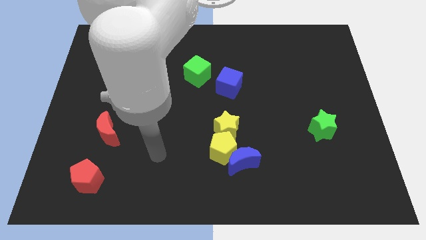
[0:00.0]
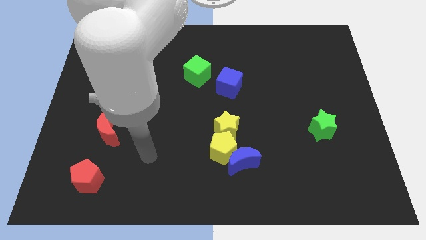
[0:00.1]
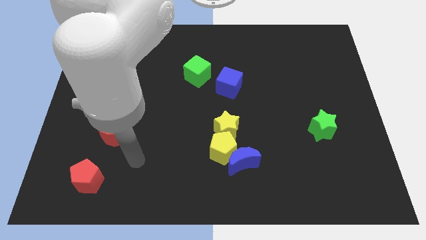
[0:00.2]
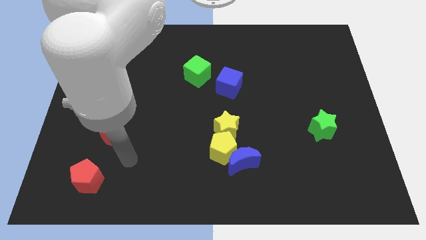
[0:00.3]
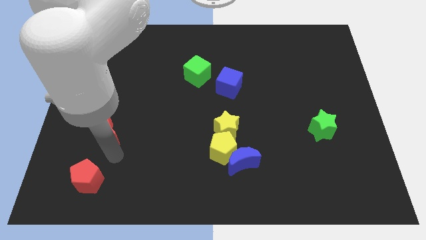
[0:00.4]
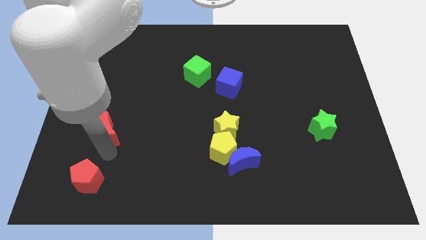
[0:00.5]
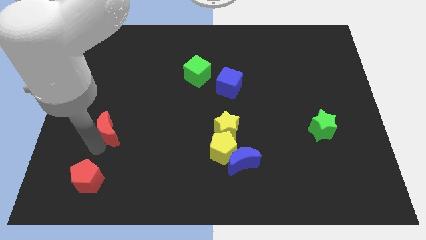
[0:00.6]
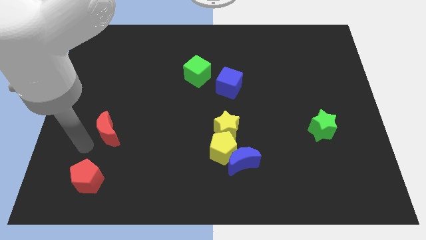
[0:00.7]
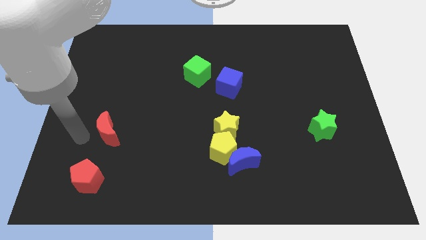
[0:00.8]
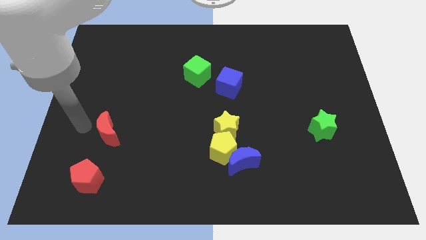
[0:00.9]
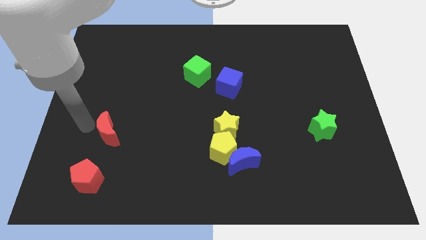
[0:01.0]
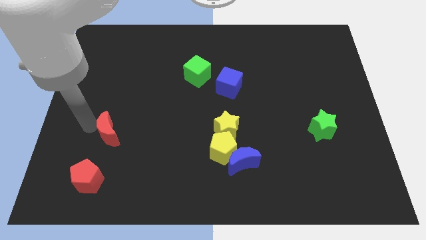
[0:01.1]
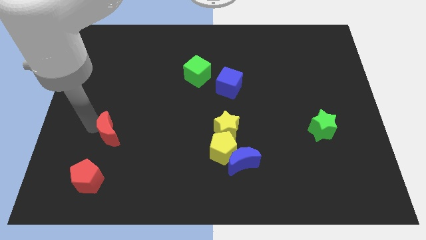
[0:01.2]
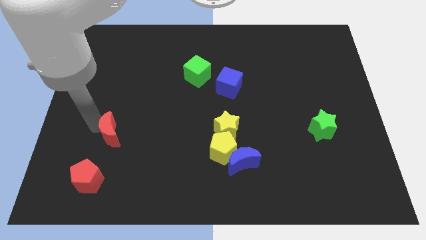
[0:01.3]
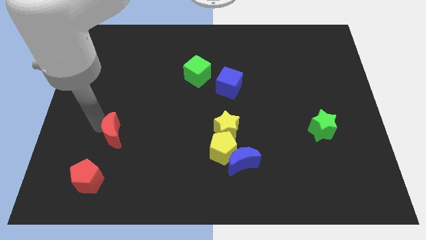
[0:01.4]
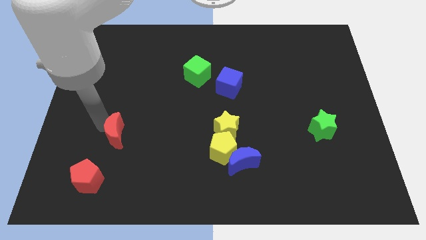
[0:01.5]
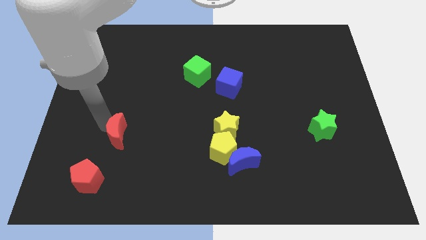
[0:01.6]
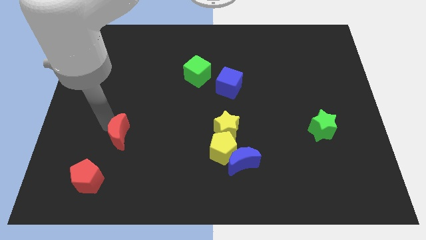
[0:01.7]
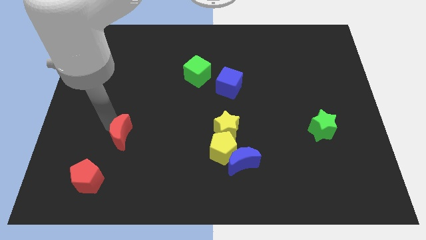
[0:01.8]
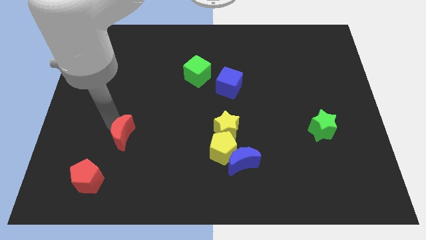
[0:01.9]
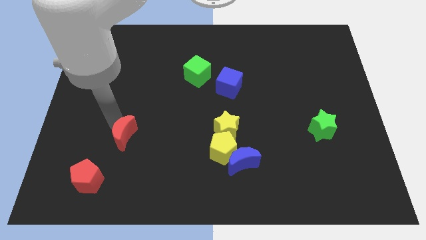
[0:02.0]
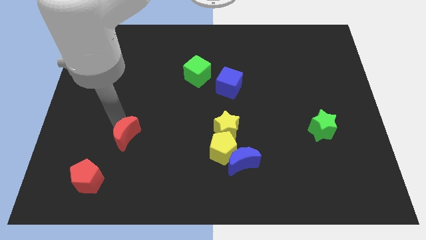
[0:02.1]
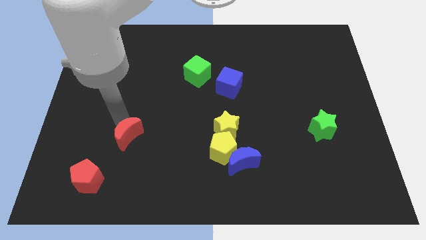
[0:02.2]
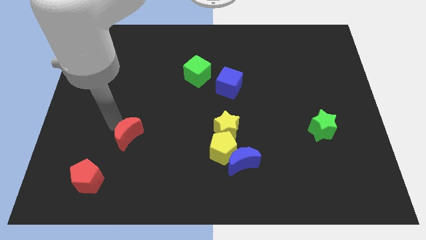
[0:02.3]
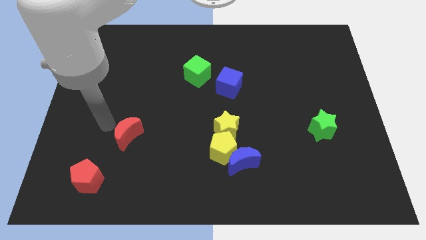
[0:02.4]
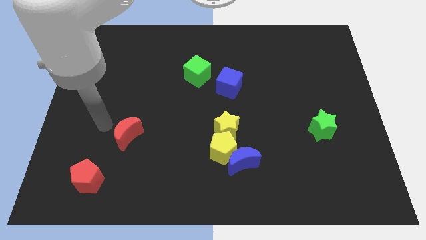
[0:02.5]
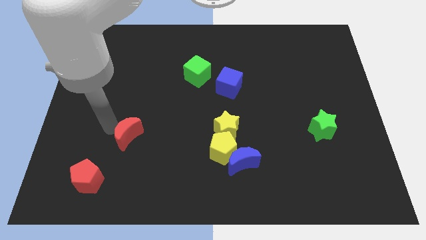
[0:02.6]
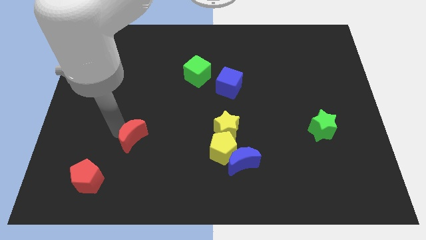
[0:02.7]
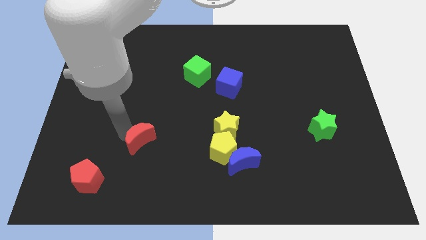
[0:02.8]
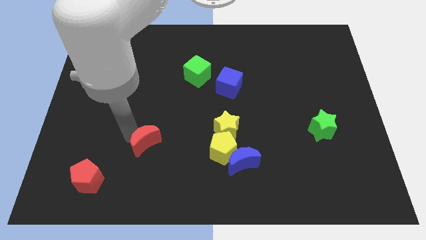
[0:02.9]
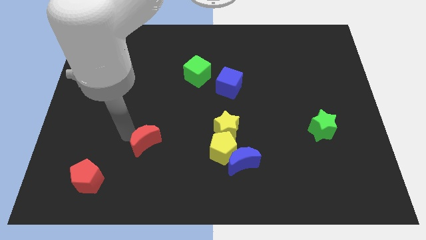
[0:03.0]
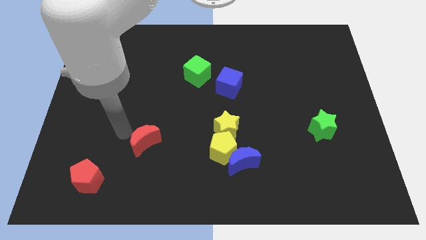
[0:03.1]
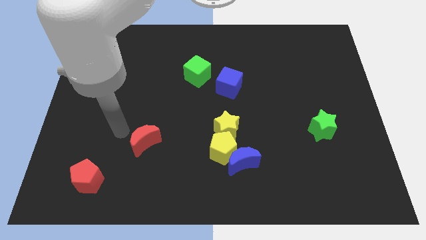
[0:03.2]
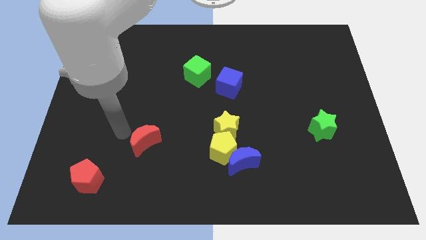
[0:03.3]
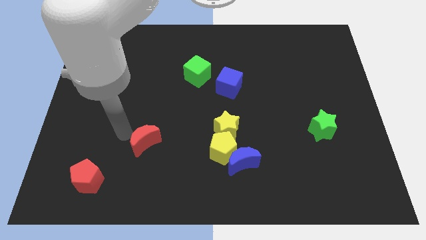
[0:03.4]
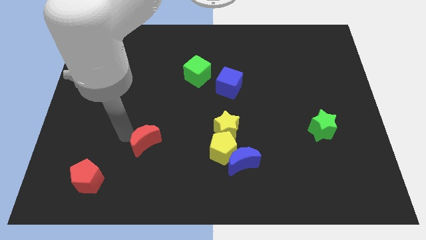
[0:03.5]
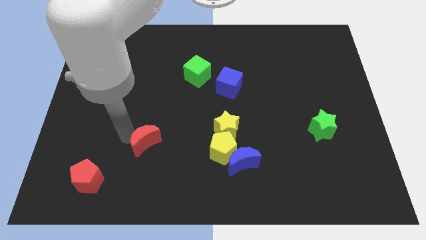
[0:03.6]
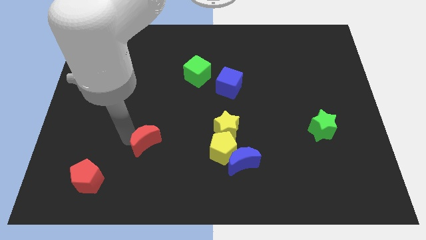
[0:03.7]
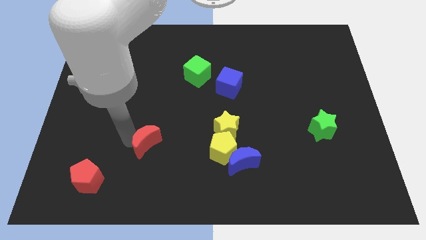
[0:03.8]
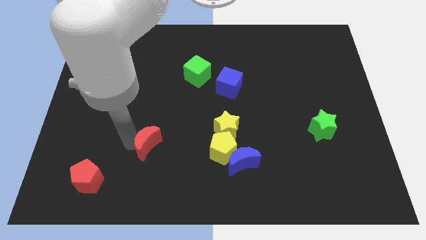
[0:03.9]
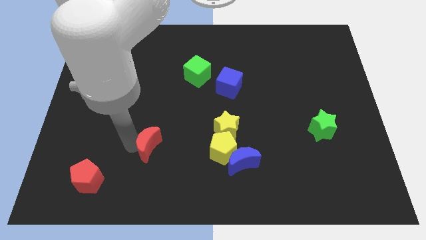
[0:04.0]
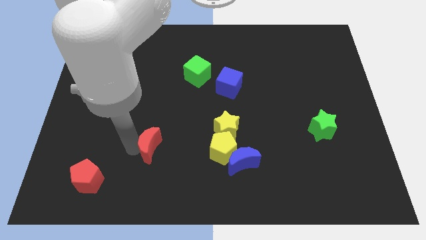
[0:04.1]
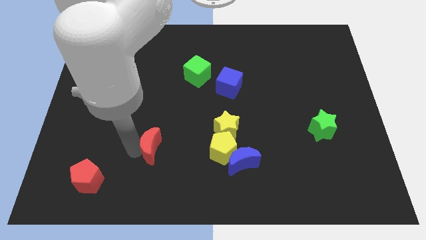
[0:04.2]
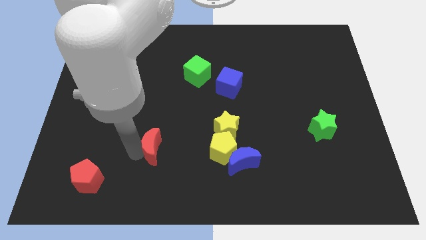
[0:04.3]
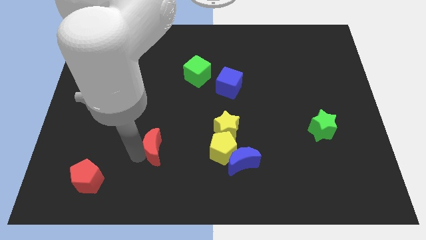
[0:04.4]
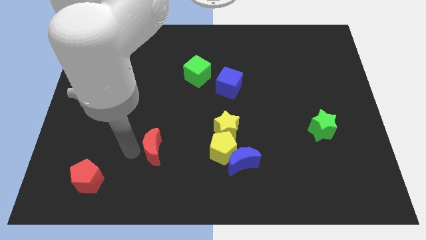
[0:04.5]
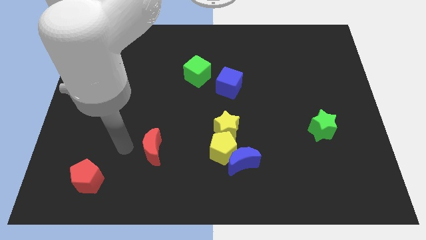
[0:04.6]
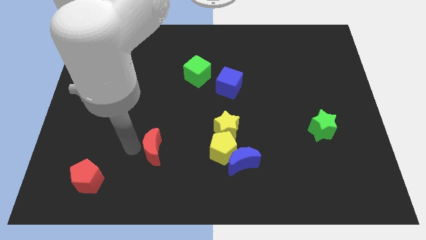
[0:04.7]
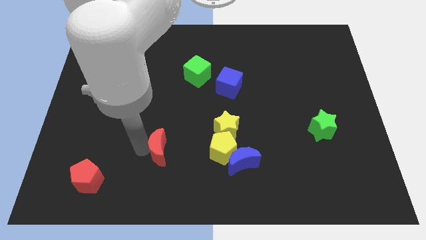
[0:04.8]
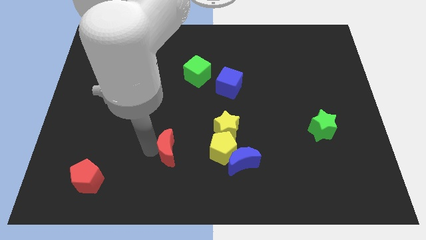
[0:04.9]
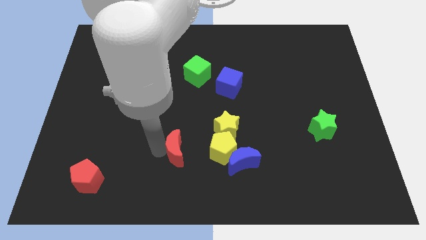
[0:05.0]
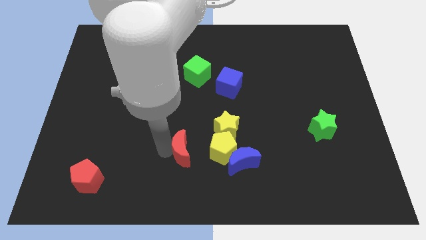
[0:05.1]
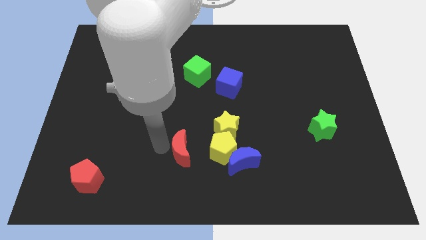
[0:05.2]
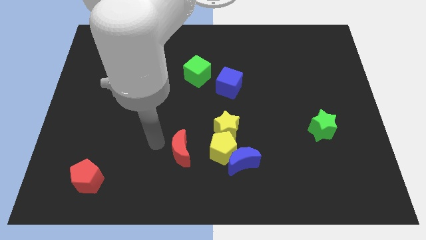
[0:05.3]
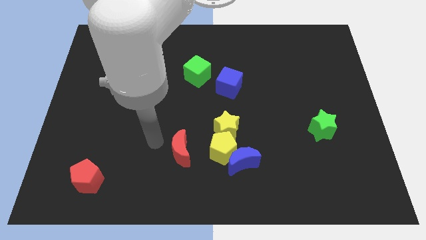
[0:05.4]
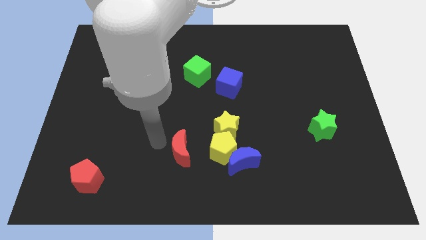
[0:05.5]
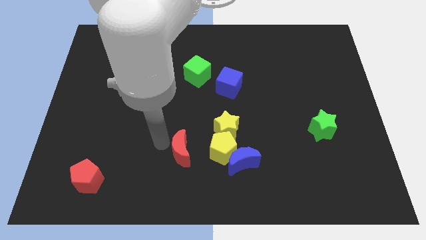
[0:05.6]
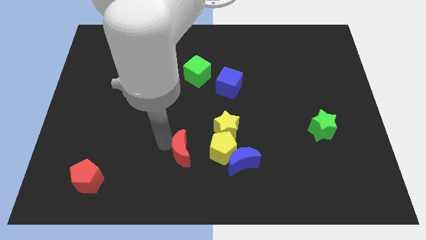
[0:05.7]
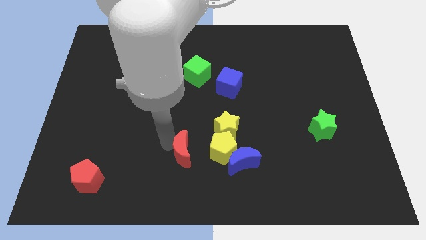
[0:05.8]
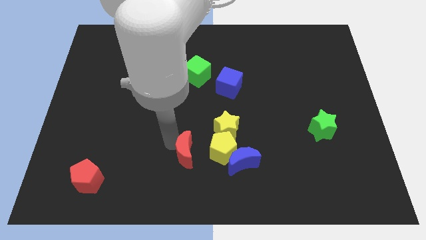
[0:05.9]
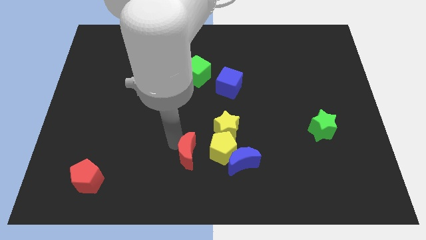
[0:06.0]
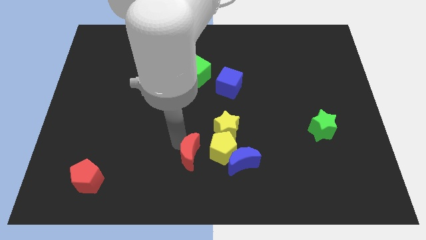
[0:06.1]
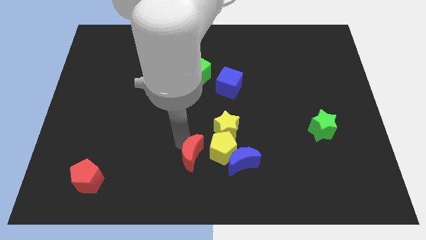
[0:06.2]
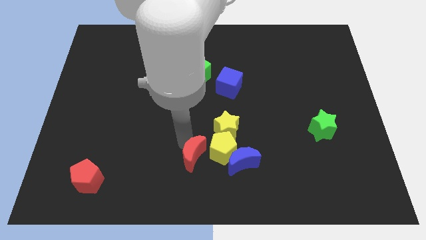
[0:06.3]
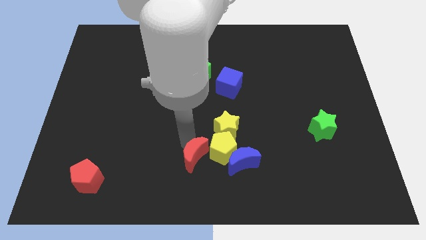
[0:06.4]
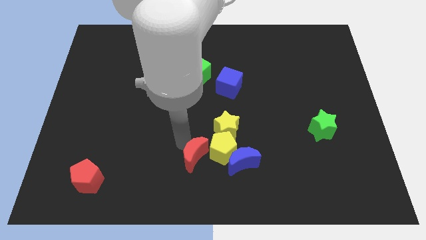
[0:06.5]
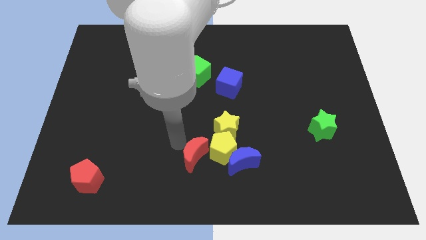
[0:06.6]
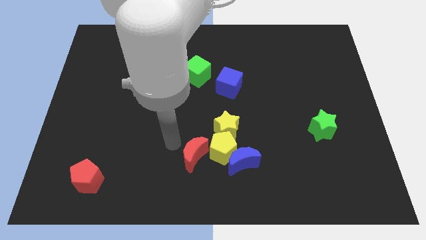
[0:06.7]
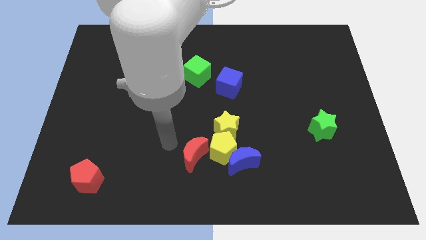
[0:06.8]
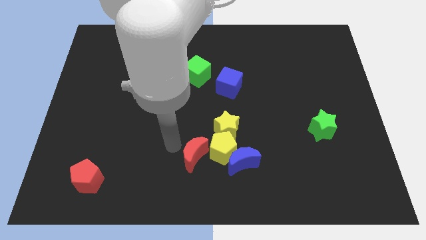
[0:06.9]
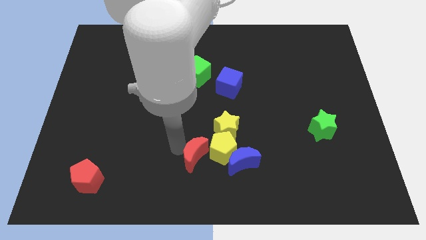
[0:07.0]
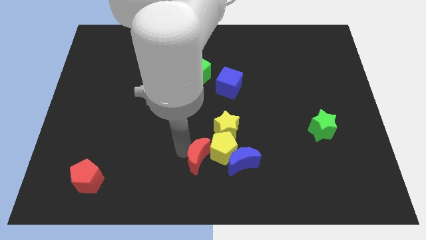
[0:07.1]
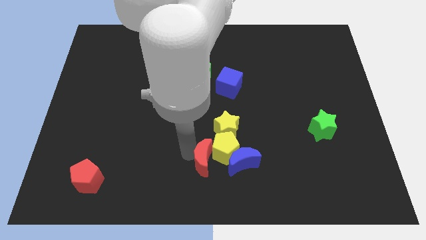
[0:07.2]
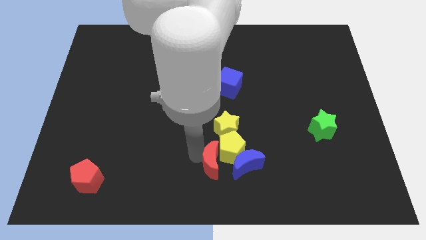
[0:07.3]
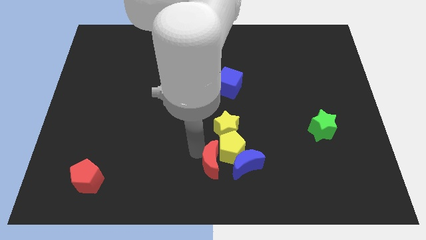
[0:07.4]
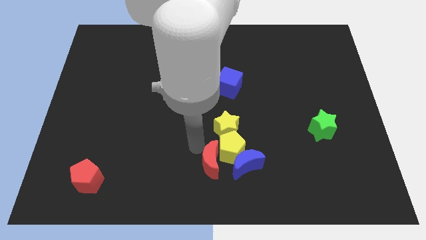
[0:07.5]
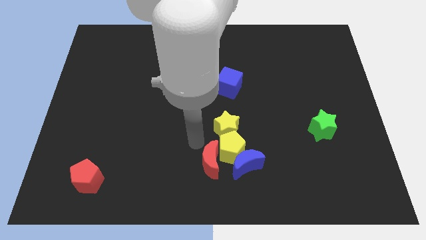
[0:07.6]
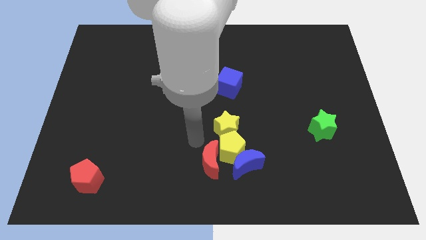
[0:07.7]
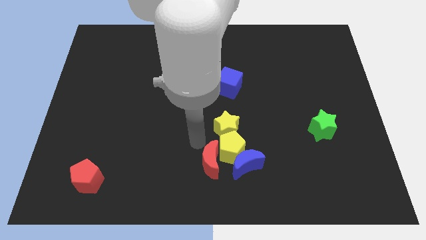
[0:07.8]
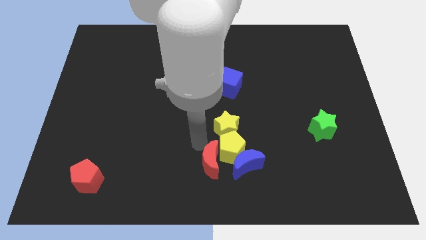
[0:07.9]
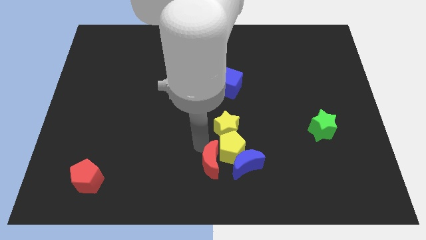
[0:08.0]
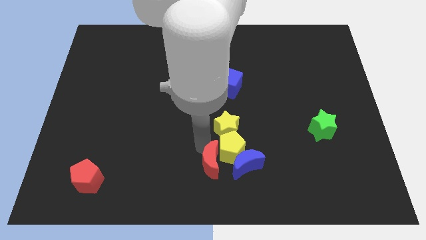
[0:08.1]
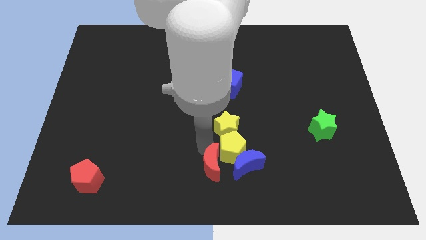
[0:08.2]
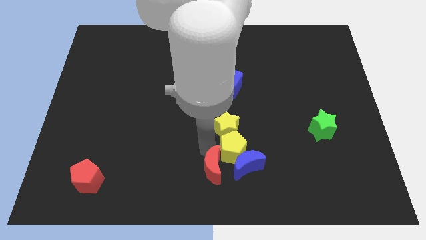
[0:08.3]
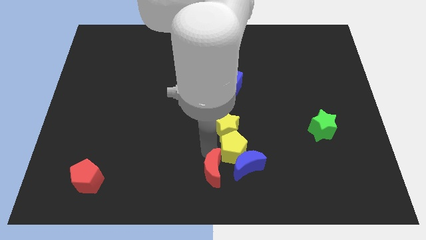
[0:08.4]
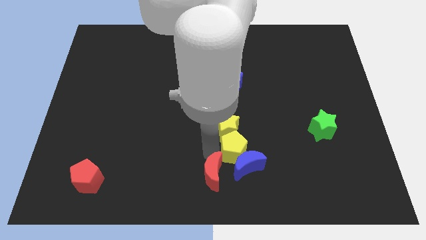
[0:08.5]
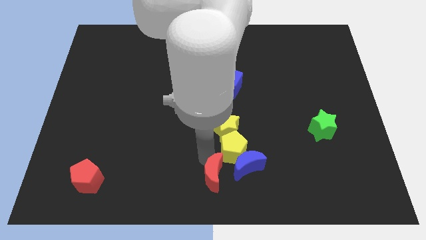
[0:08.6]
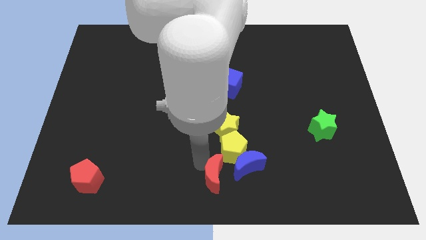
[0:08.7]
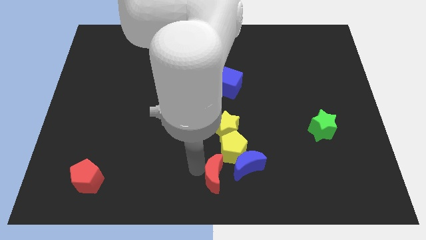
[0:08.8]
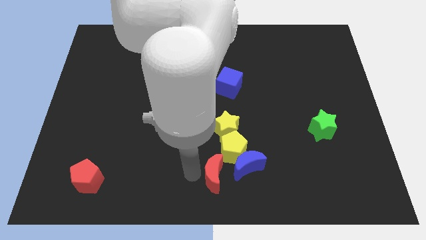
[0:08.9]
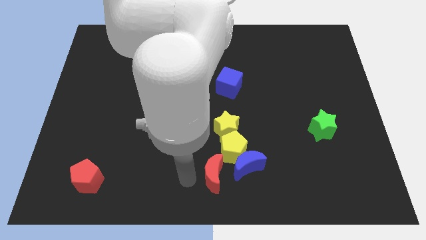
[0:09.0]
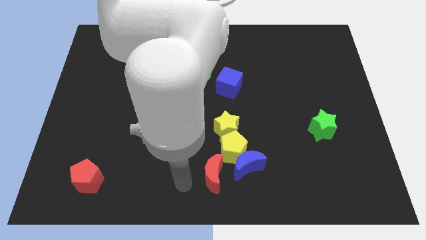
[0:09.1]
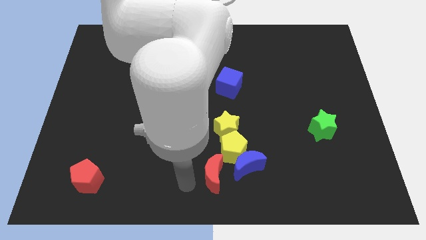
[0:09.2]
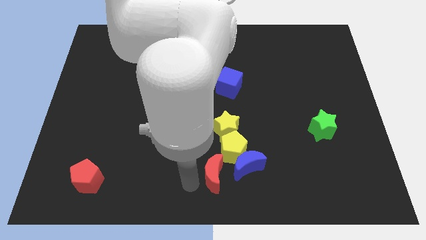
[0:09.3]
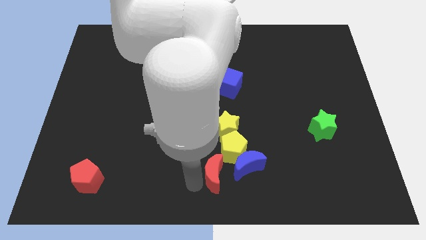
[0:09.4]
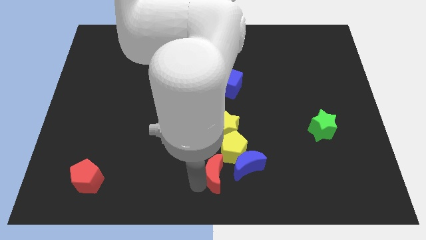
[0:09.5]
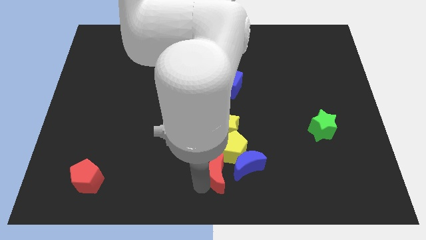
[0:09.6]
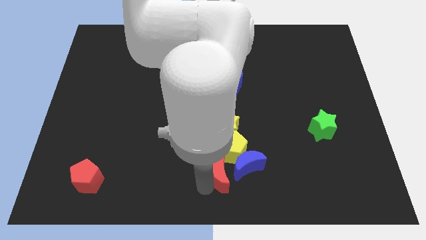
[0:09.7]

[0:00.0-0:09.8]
put the red moon close to the blue moon
